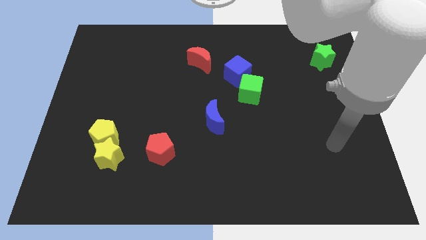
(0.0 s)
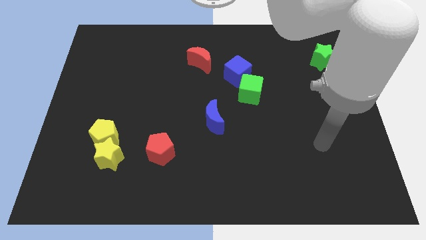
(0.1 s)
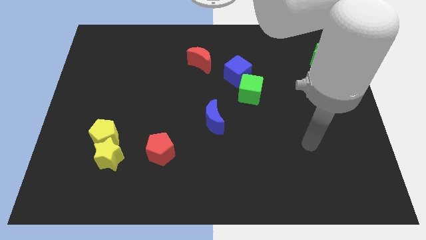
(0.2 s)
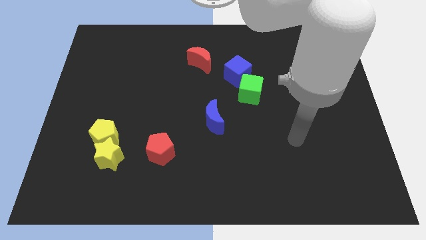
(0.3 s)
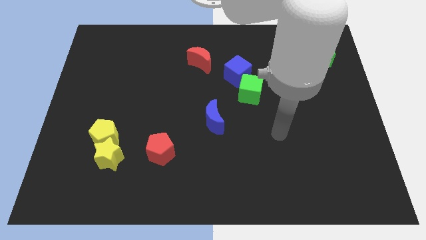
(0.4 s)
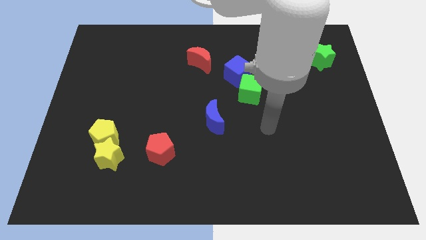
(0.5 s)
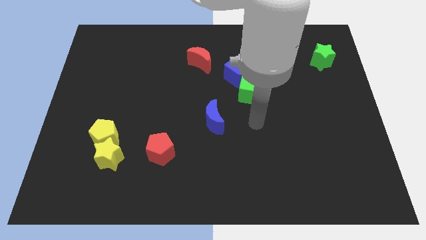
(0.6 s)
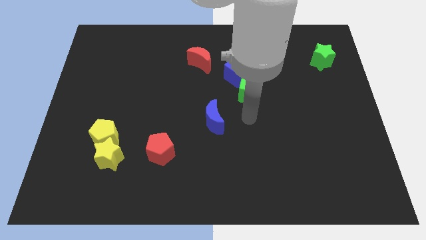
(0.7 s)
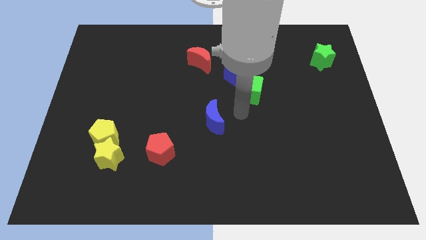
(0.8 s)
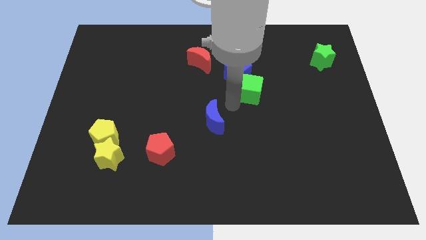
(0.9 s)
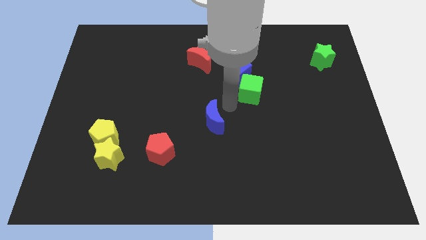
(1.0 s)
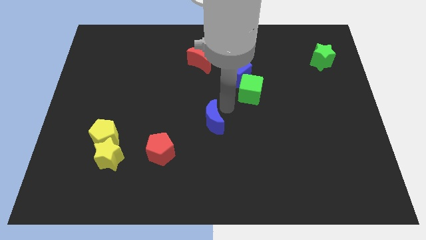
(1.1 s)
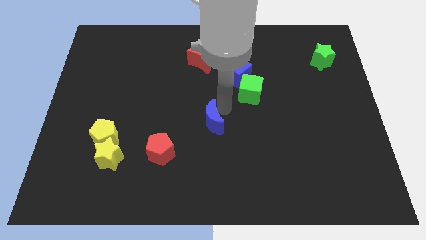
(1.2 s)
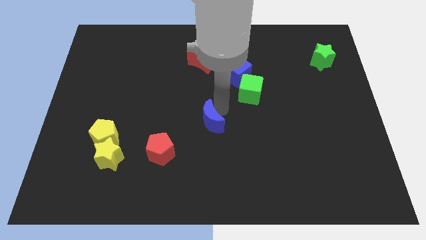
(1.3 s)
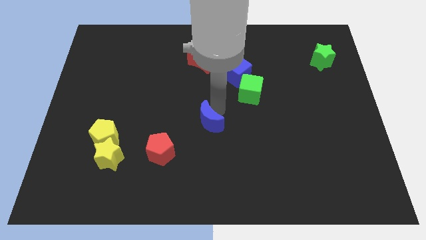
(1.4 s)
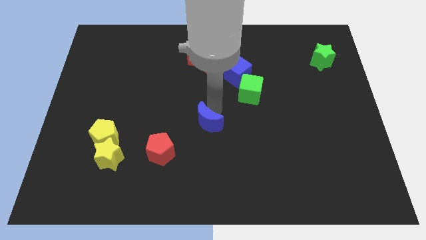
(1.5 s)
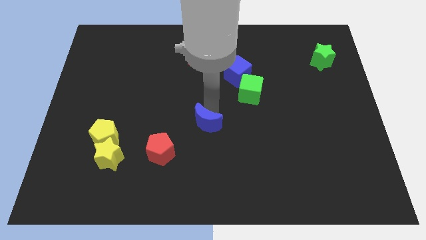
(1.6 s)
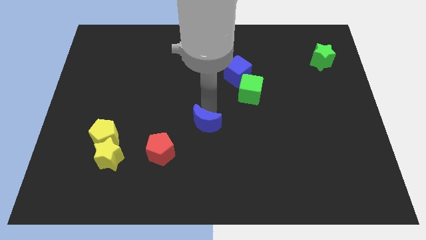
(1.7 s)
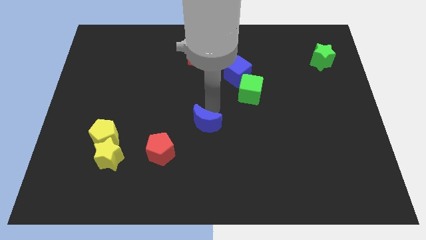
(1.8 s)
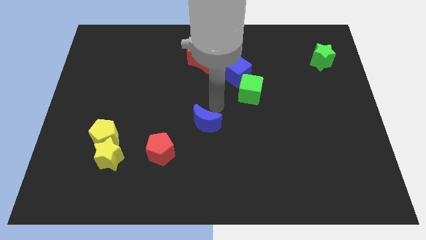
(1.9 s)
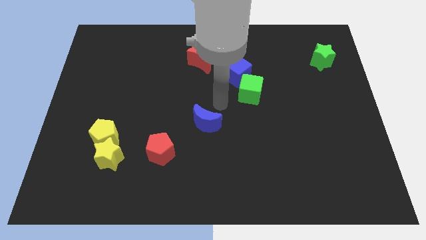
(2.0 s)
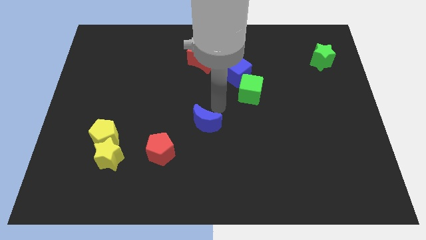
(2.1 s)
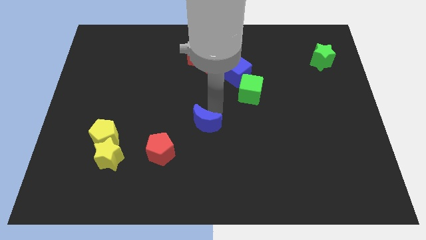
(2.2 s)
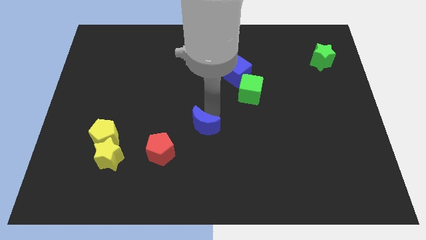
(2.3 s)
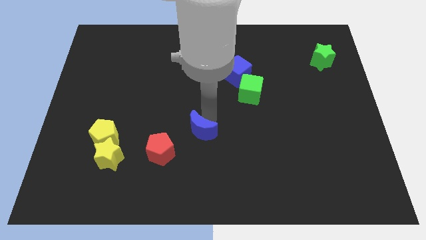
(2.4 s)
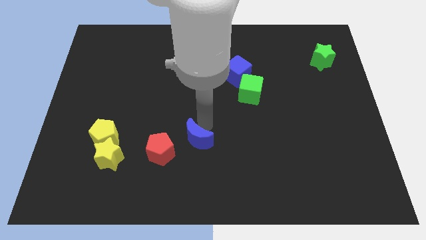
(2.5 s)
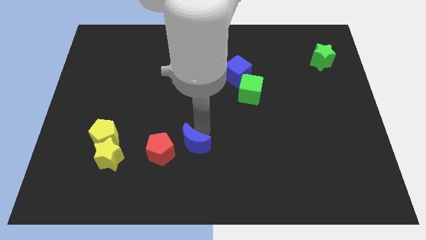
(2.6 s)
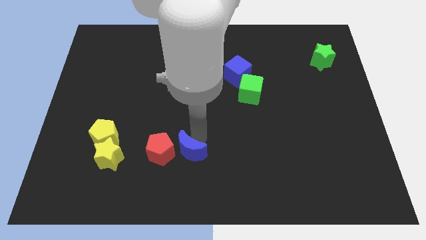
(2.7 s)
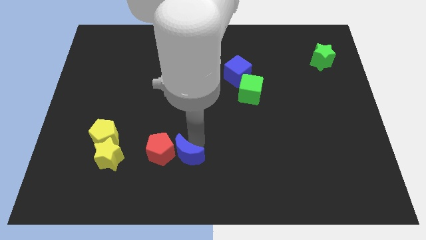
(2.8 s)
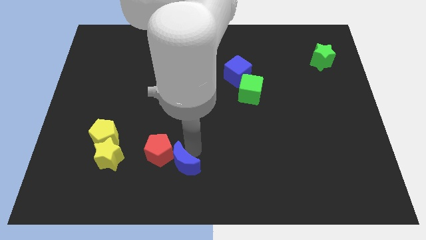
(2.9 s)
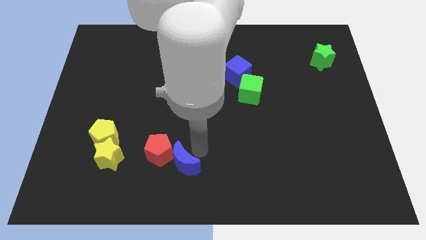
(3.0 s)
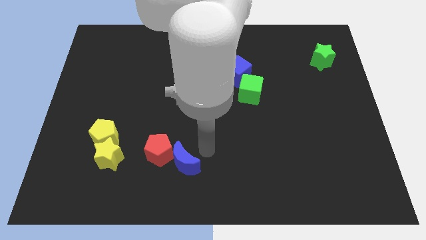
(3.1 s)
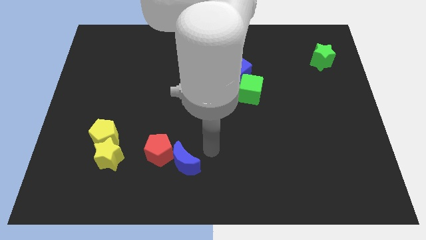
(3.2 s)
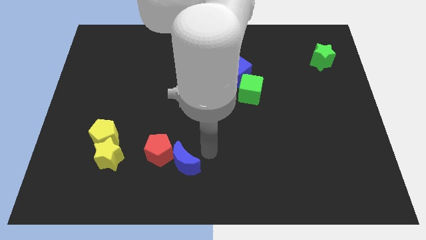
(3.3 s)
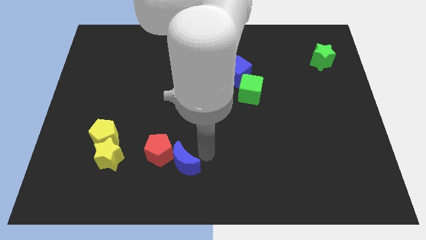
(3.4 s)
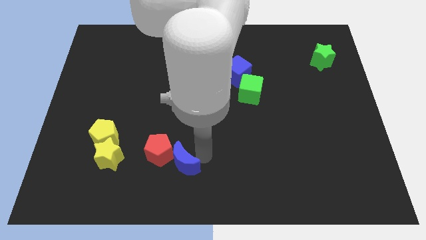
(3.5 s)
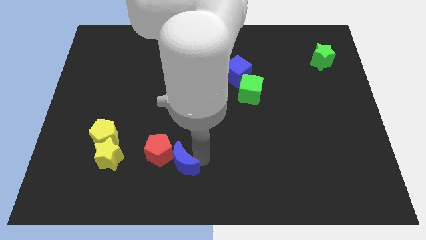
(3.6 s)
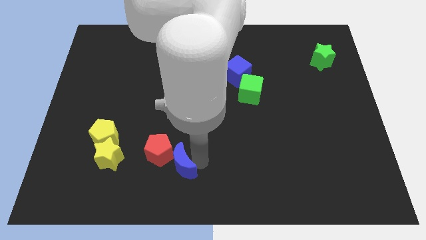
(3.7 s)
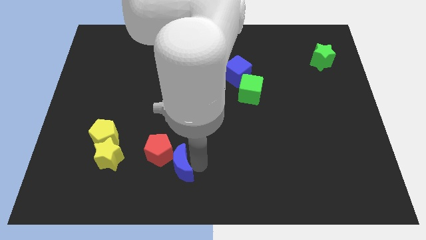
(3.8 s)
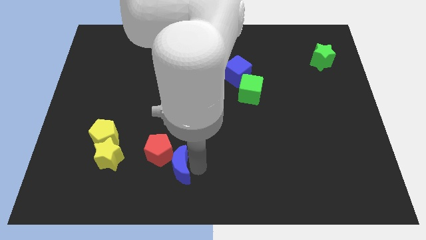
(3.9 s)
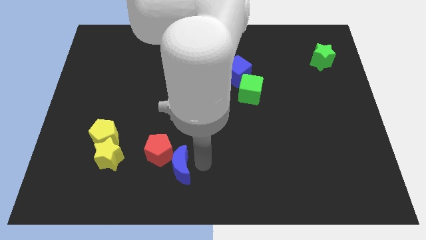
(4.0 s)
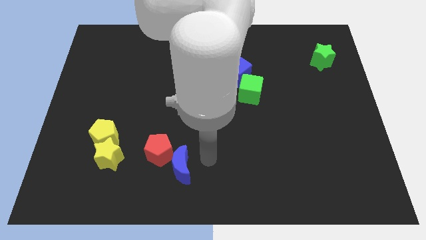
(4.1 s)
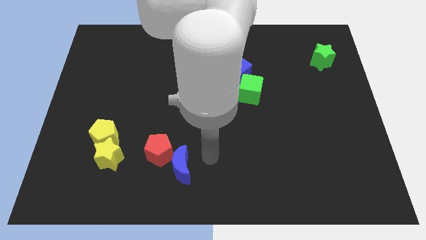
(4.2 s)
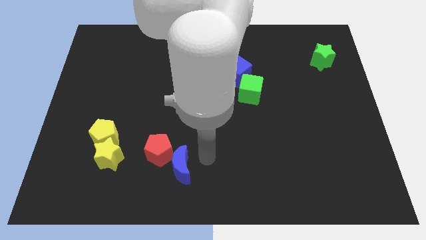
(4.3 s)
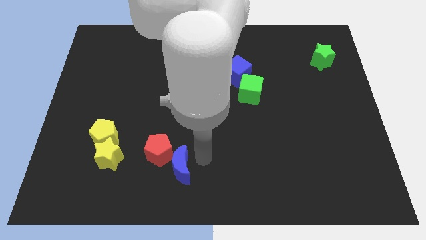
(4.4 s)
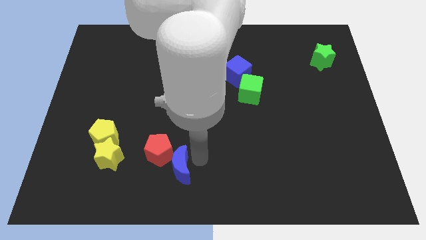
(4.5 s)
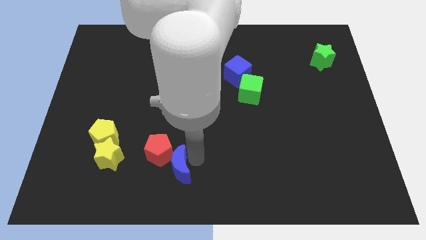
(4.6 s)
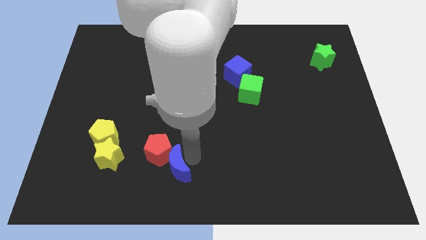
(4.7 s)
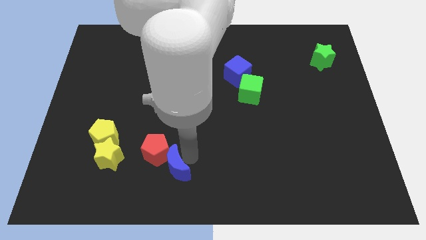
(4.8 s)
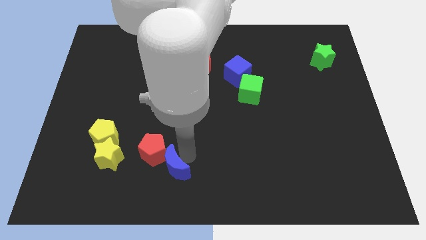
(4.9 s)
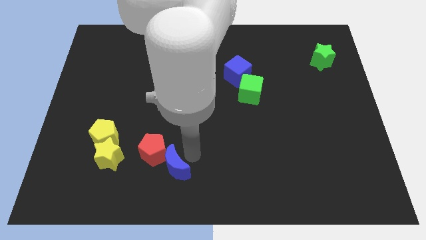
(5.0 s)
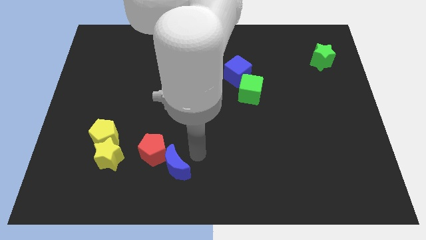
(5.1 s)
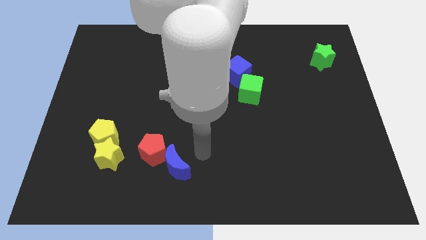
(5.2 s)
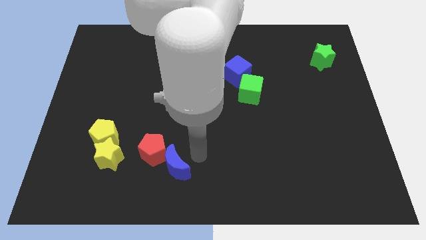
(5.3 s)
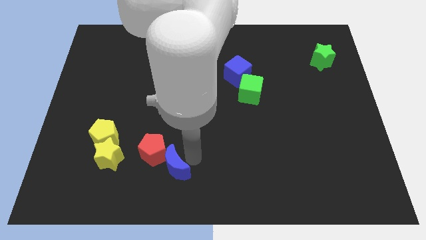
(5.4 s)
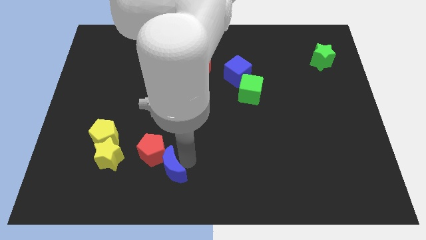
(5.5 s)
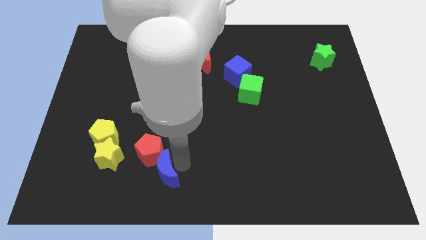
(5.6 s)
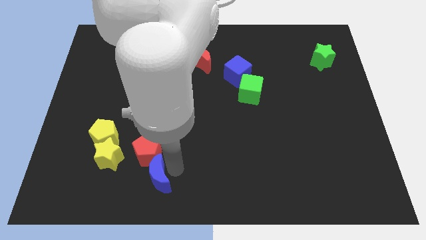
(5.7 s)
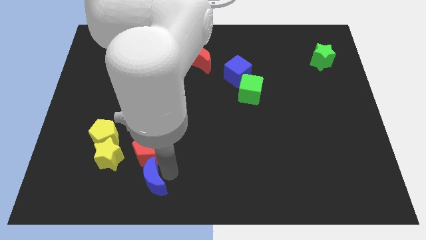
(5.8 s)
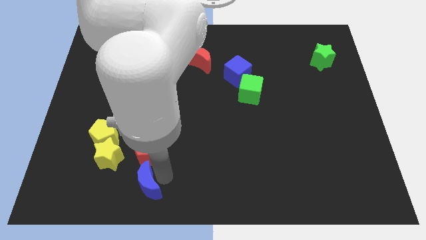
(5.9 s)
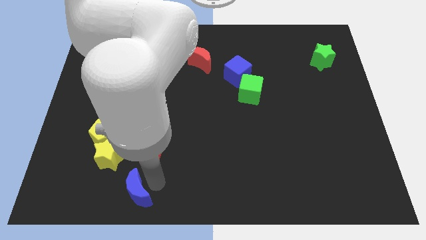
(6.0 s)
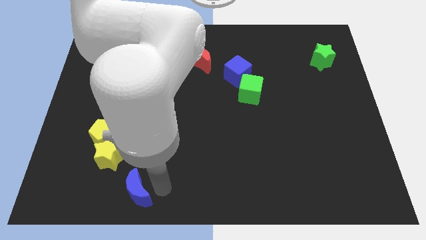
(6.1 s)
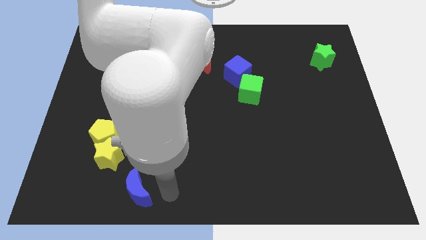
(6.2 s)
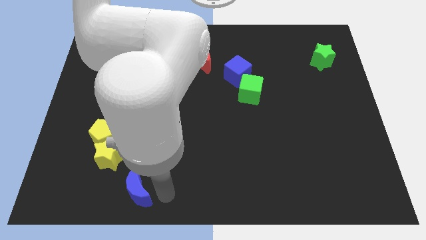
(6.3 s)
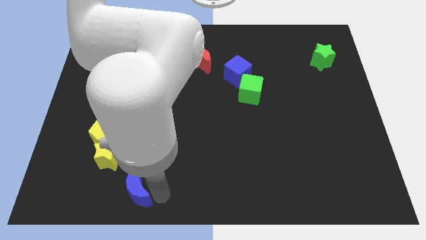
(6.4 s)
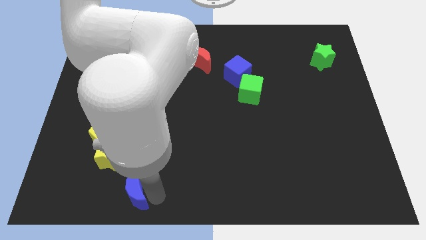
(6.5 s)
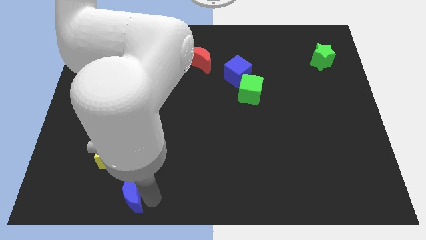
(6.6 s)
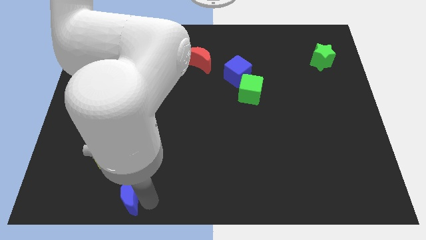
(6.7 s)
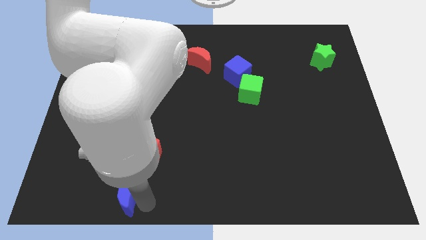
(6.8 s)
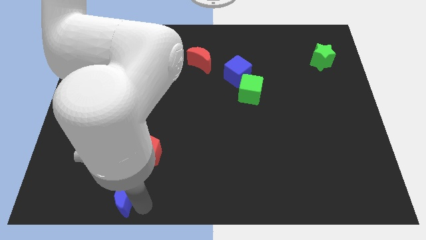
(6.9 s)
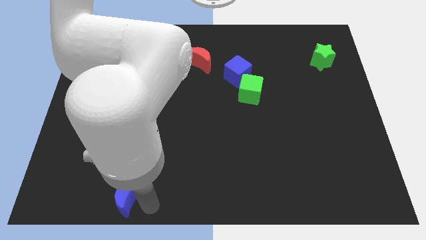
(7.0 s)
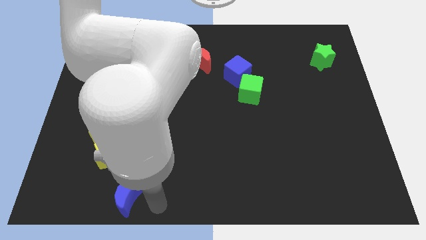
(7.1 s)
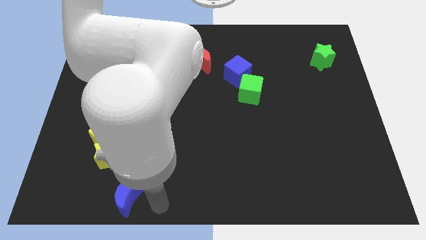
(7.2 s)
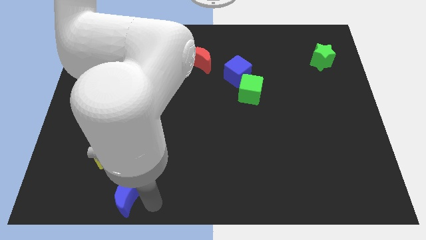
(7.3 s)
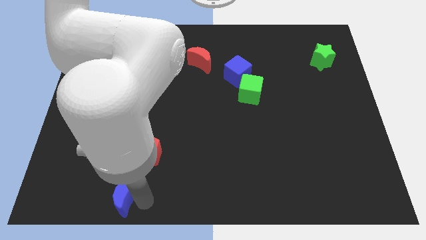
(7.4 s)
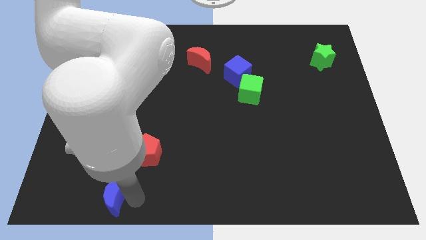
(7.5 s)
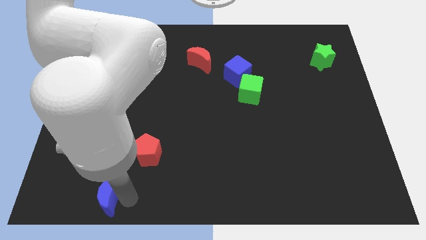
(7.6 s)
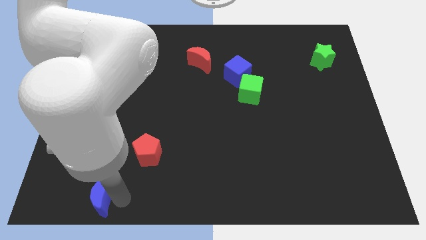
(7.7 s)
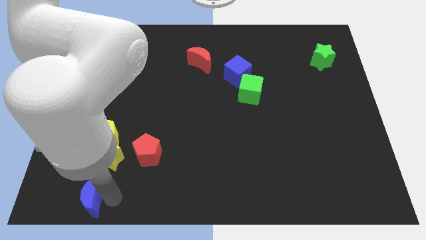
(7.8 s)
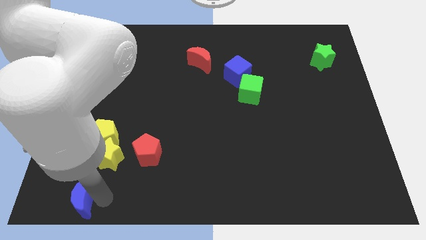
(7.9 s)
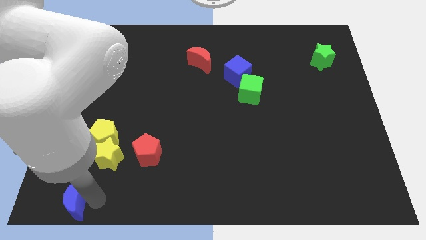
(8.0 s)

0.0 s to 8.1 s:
put the blue moon to the bottom left of the board
